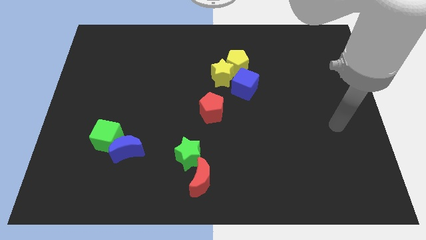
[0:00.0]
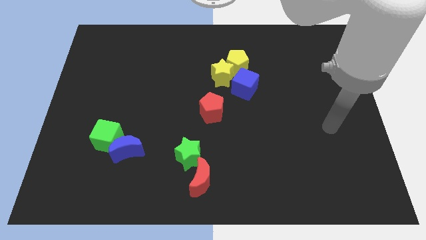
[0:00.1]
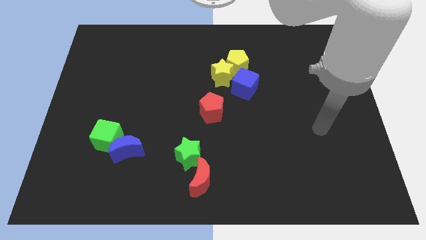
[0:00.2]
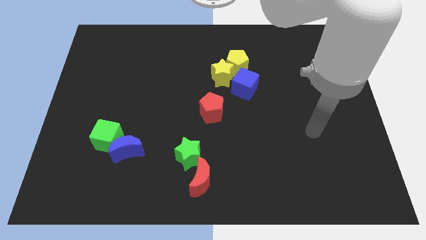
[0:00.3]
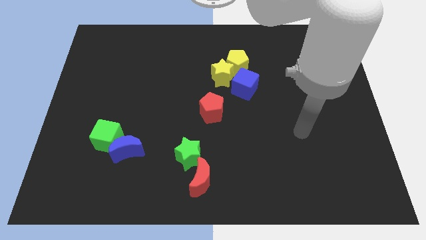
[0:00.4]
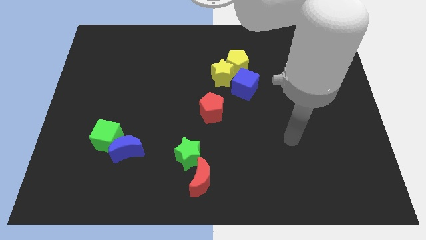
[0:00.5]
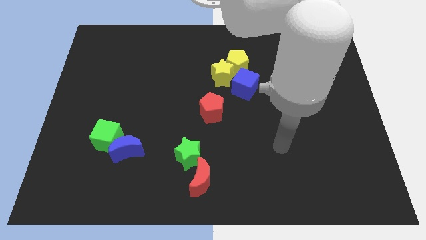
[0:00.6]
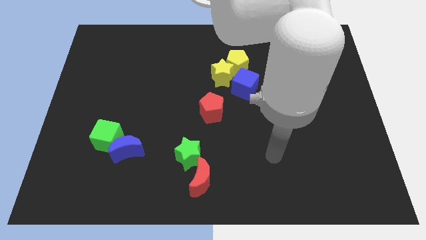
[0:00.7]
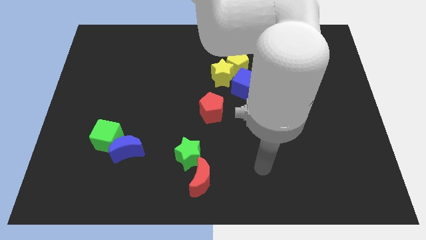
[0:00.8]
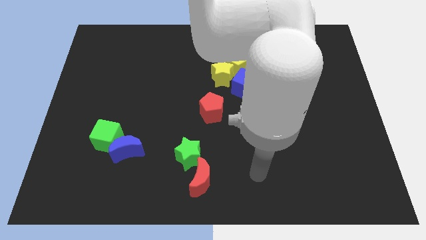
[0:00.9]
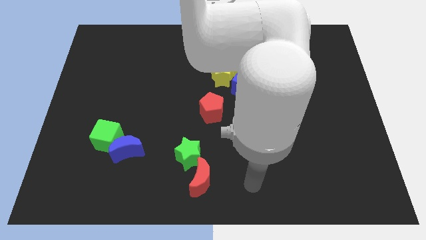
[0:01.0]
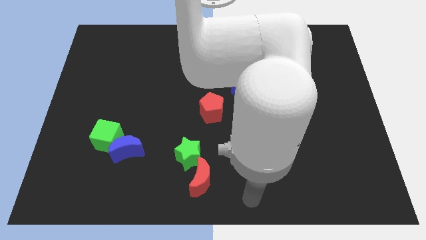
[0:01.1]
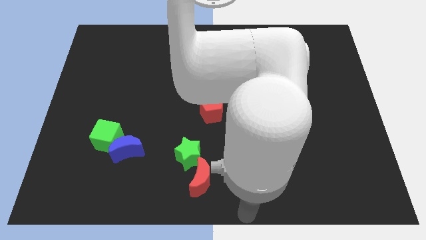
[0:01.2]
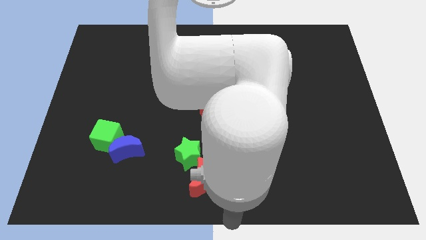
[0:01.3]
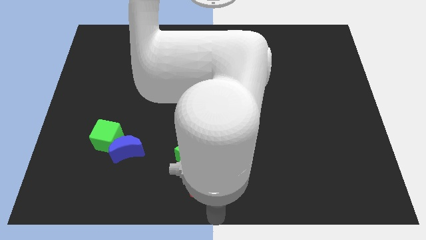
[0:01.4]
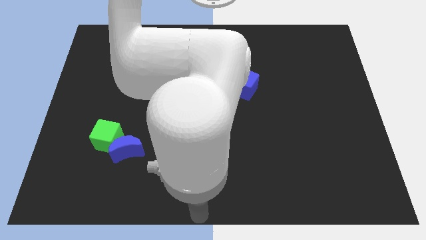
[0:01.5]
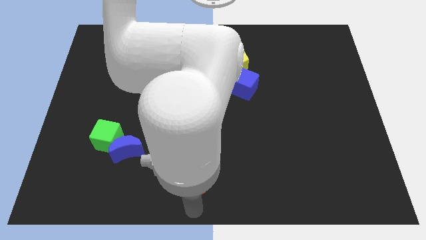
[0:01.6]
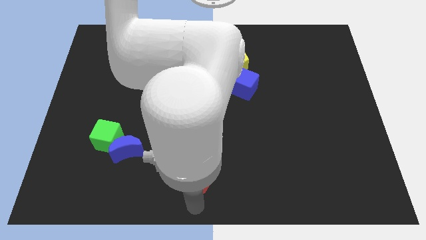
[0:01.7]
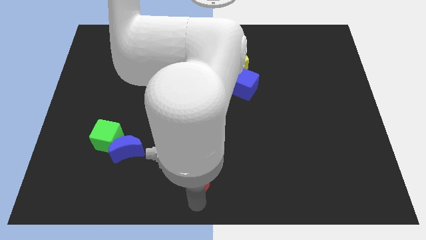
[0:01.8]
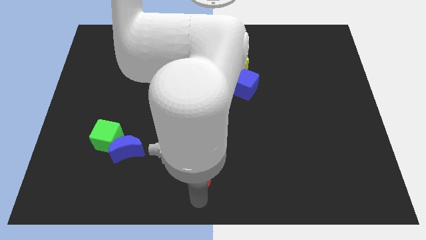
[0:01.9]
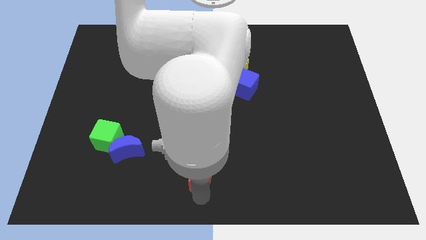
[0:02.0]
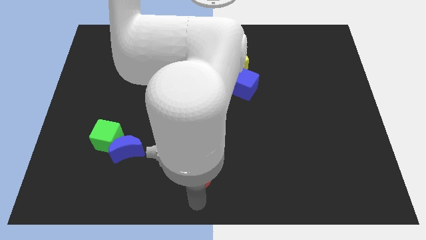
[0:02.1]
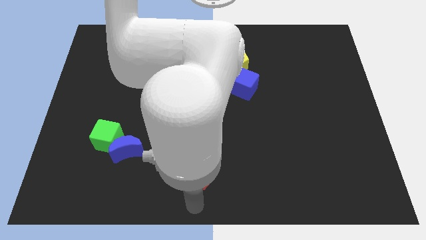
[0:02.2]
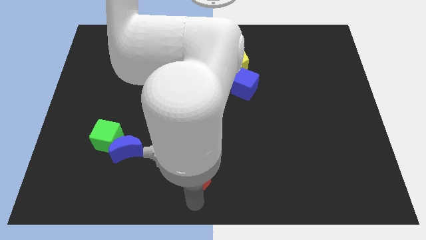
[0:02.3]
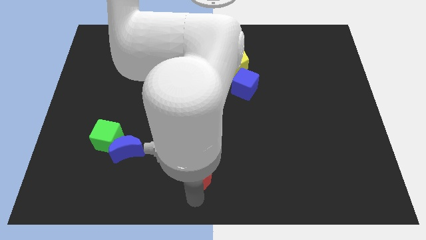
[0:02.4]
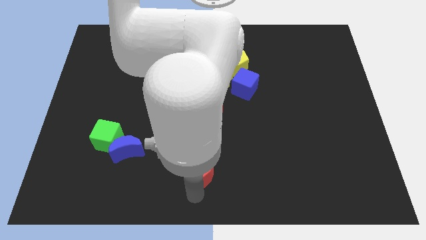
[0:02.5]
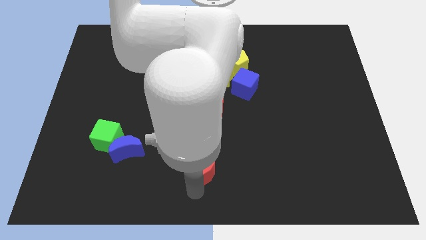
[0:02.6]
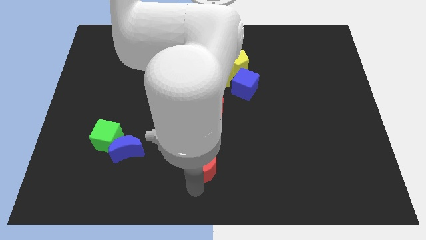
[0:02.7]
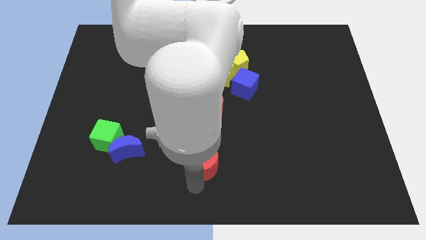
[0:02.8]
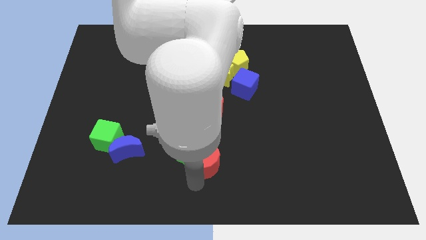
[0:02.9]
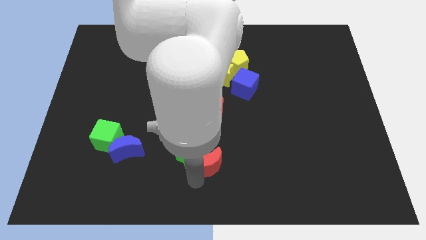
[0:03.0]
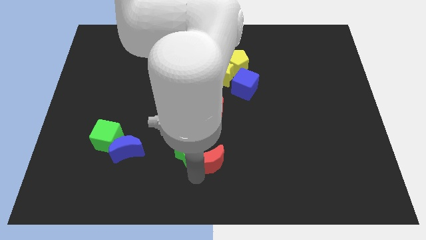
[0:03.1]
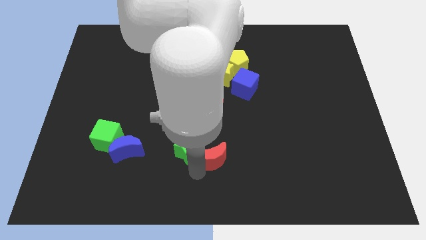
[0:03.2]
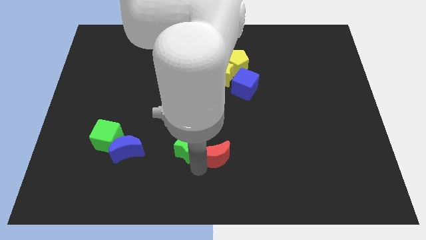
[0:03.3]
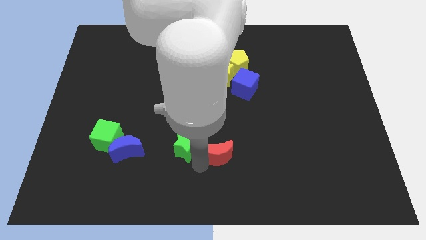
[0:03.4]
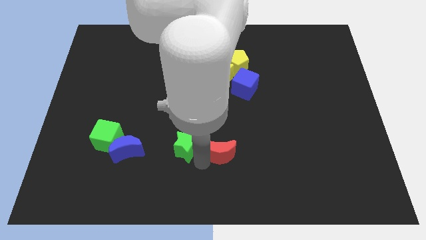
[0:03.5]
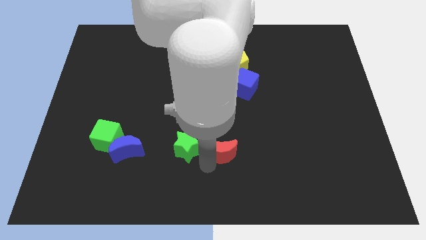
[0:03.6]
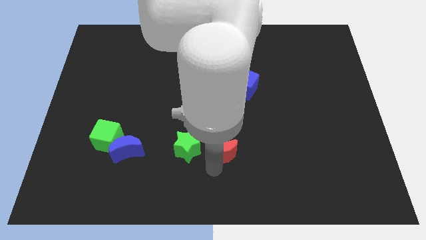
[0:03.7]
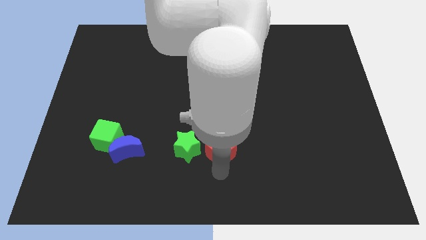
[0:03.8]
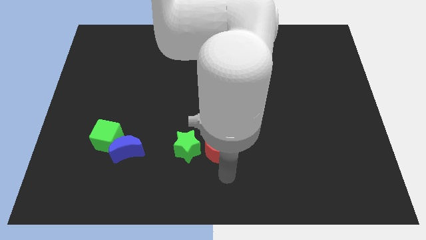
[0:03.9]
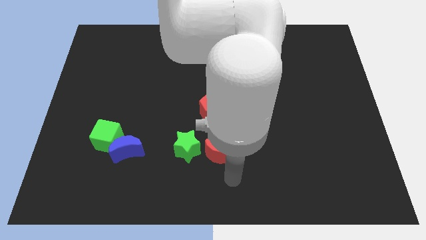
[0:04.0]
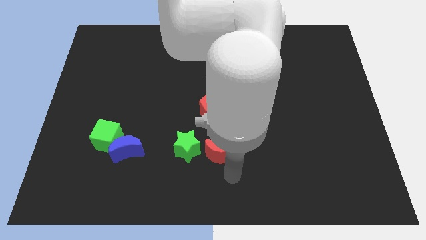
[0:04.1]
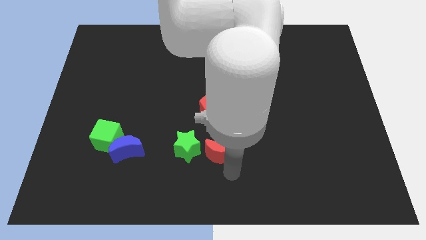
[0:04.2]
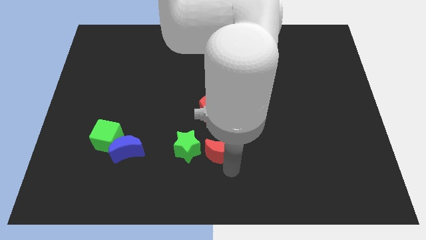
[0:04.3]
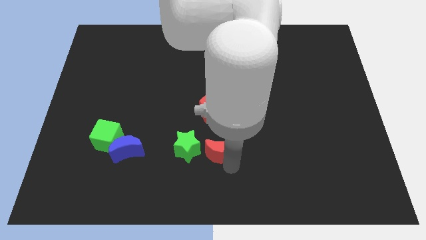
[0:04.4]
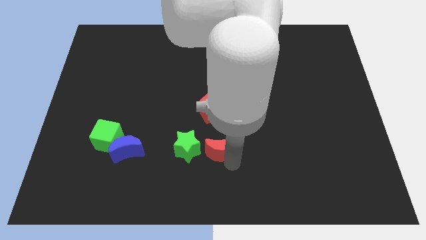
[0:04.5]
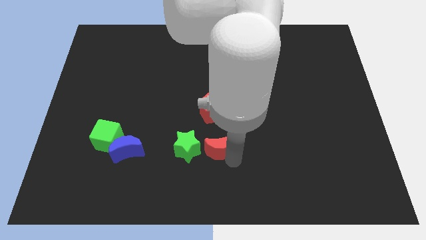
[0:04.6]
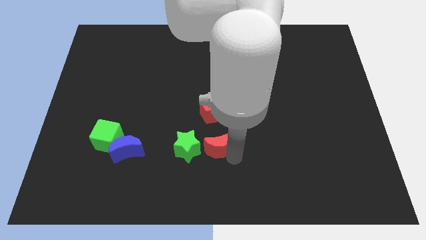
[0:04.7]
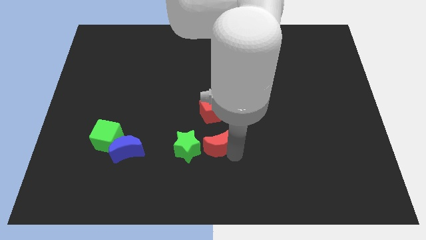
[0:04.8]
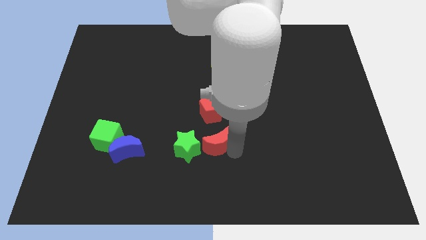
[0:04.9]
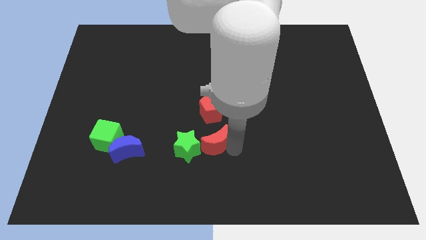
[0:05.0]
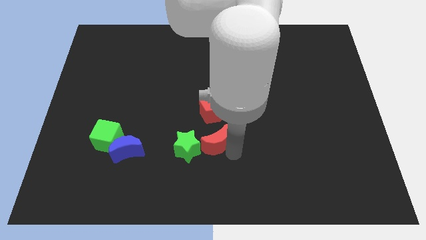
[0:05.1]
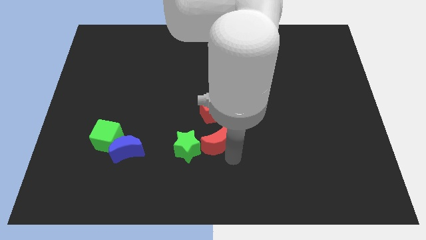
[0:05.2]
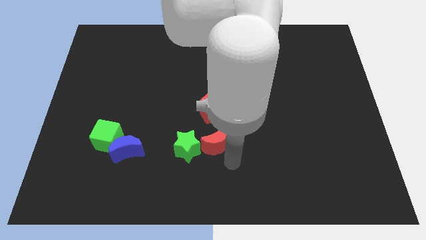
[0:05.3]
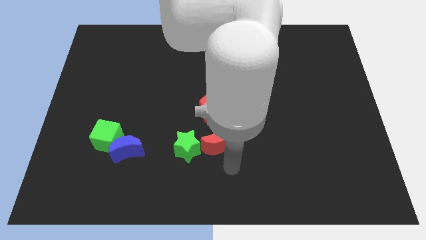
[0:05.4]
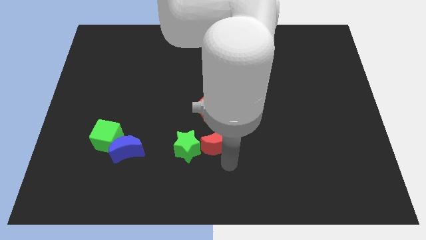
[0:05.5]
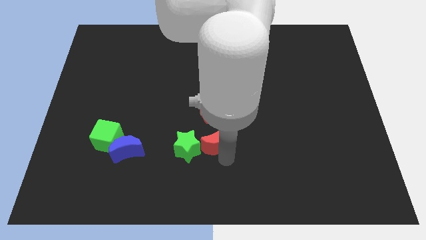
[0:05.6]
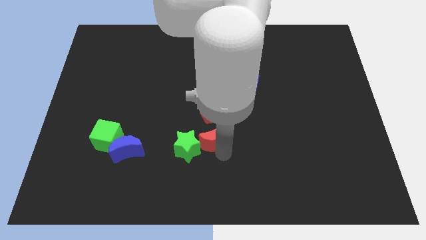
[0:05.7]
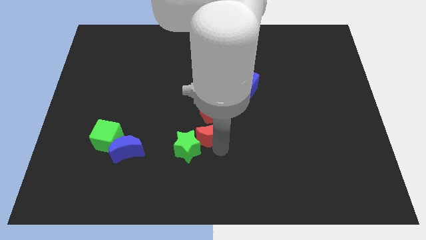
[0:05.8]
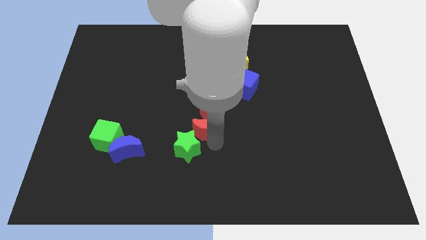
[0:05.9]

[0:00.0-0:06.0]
slide the red moon towards the red pentagon

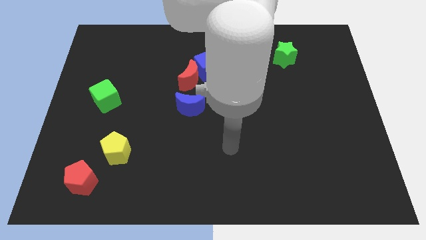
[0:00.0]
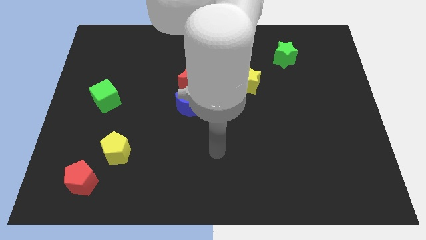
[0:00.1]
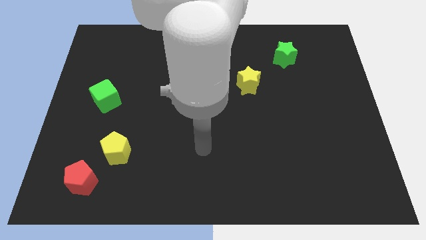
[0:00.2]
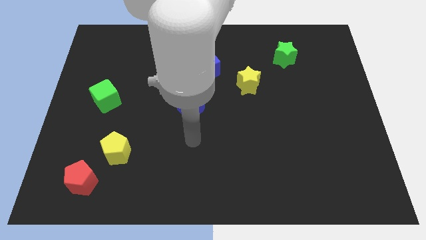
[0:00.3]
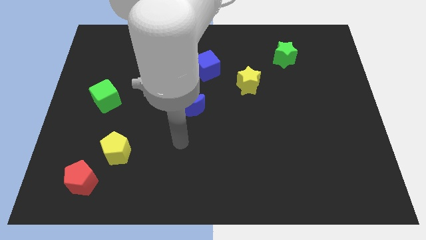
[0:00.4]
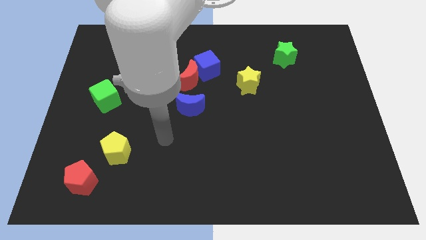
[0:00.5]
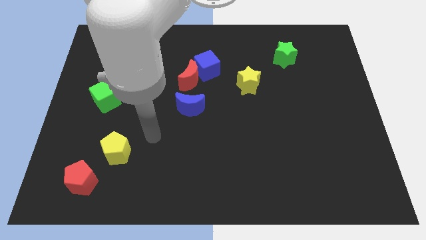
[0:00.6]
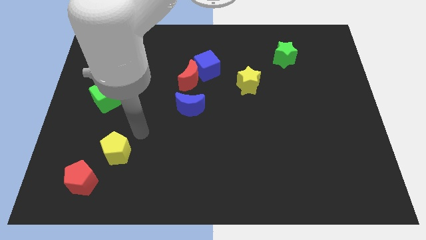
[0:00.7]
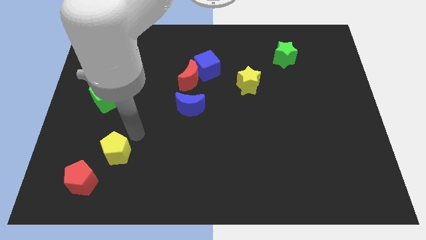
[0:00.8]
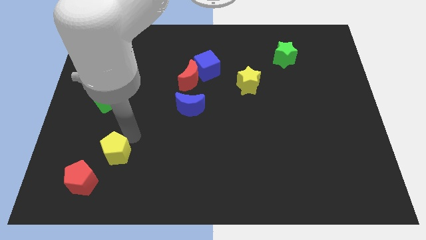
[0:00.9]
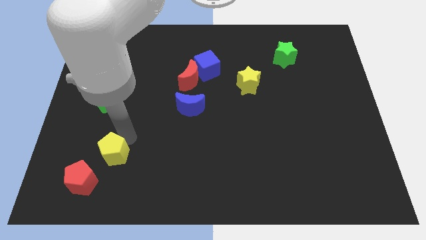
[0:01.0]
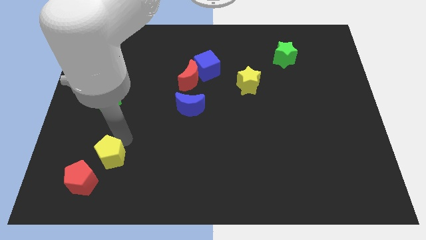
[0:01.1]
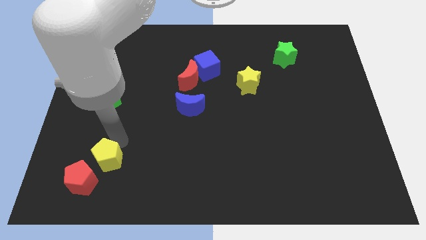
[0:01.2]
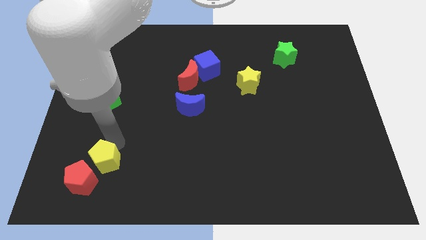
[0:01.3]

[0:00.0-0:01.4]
push the yellow pentagon next to the red pentagon

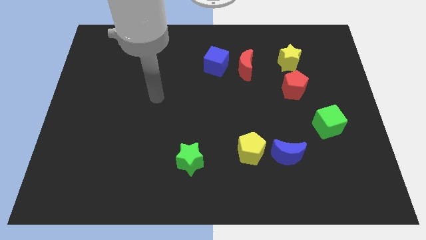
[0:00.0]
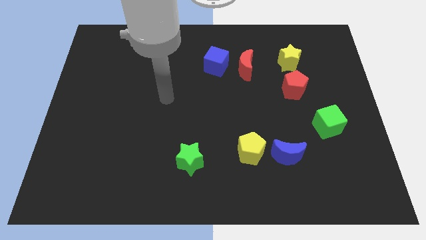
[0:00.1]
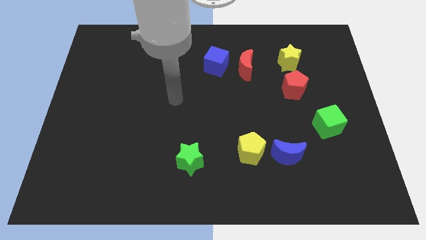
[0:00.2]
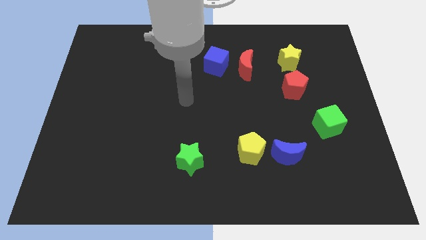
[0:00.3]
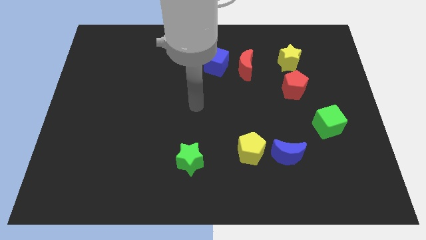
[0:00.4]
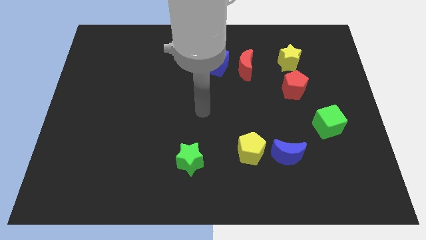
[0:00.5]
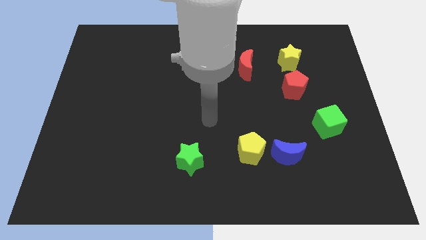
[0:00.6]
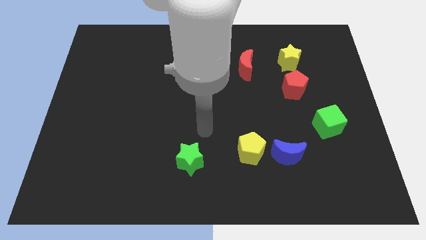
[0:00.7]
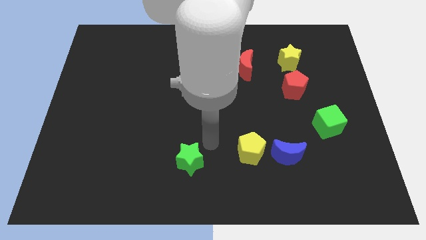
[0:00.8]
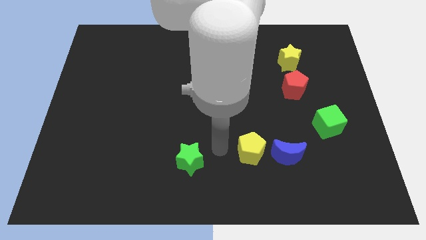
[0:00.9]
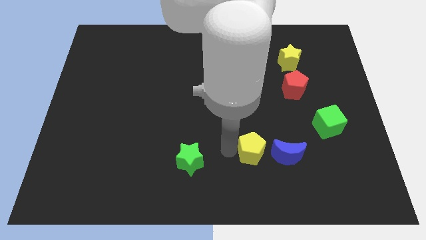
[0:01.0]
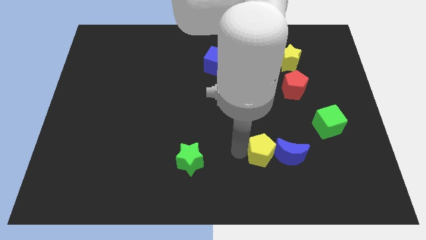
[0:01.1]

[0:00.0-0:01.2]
move the yellow pentagon towards the blue moon
